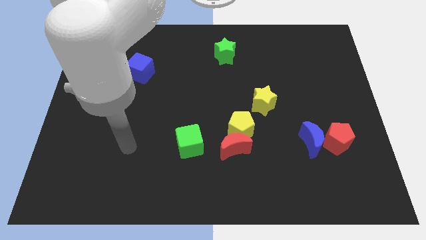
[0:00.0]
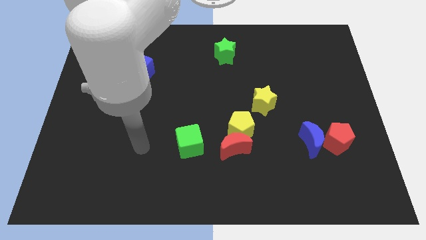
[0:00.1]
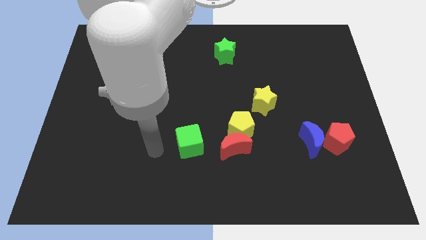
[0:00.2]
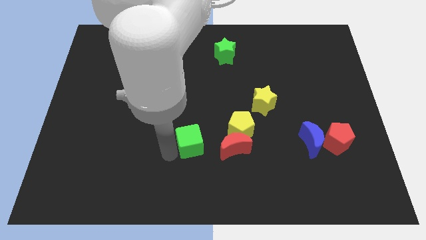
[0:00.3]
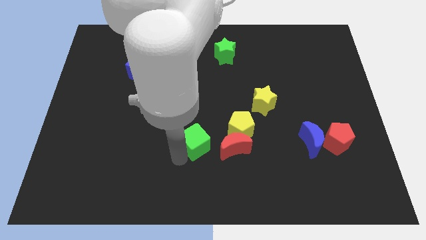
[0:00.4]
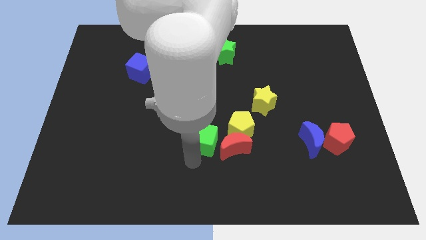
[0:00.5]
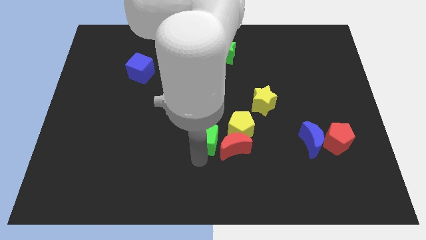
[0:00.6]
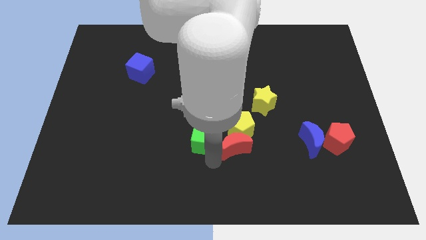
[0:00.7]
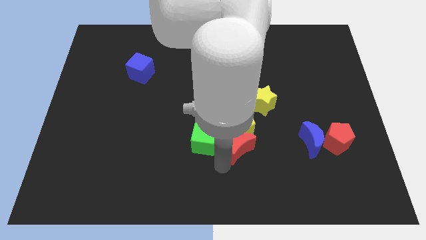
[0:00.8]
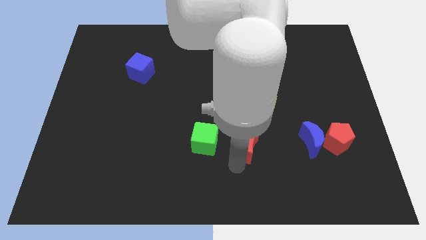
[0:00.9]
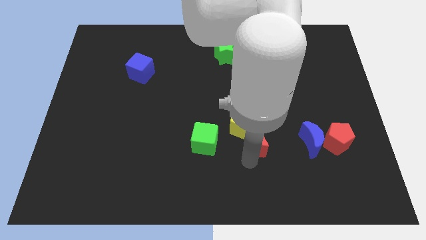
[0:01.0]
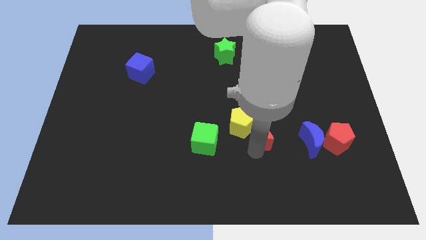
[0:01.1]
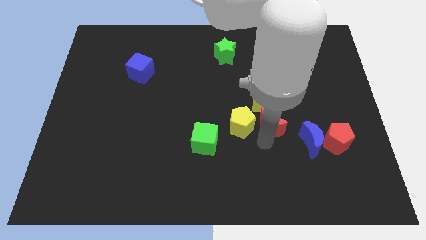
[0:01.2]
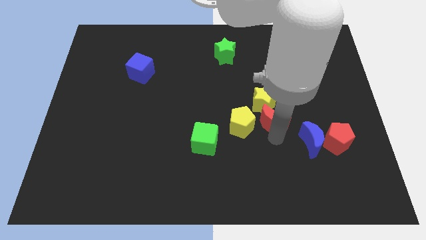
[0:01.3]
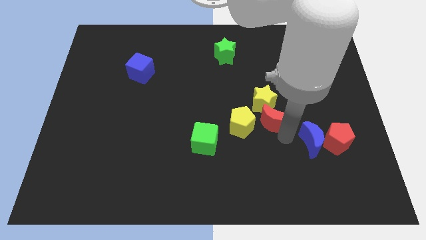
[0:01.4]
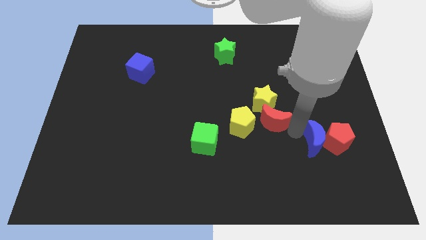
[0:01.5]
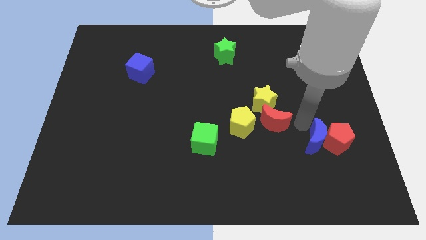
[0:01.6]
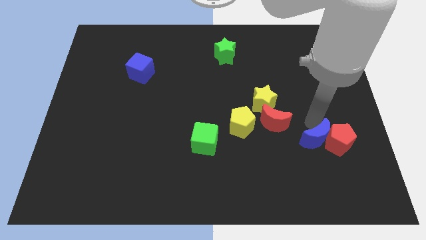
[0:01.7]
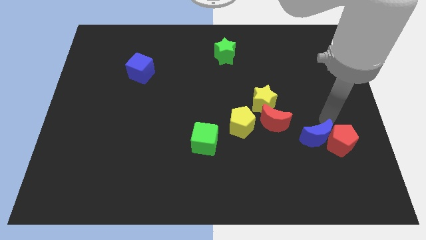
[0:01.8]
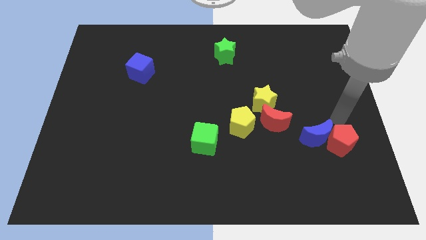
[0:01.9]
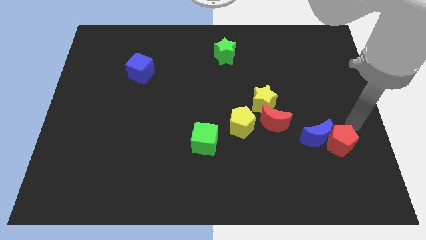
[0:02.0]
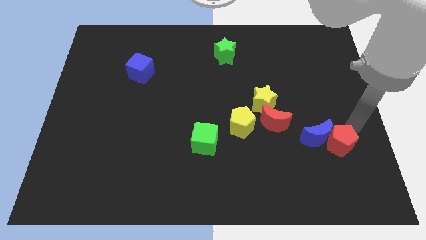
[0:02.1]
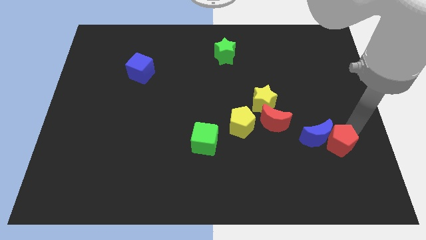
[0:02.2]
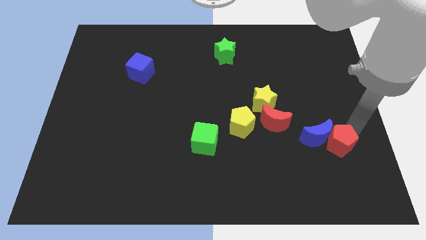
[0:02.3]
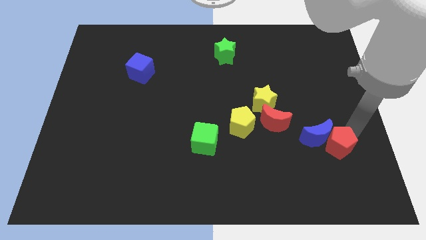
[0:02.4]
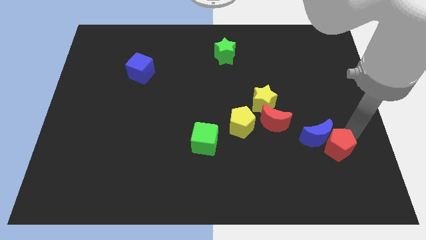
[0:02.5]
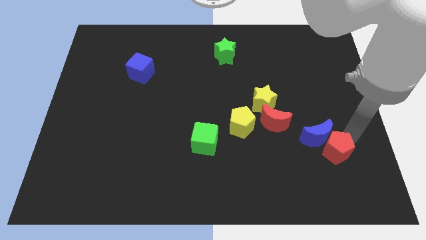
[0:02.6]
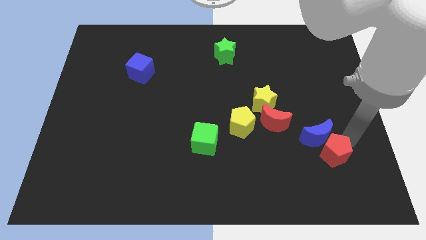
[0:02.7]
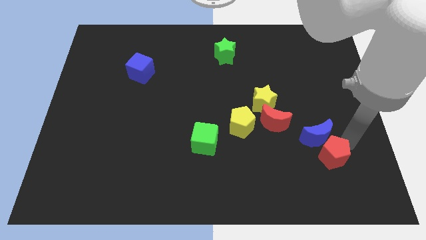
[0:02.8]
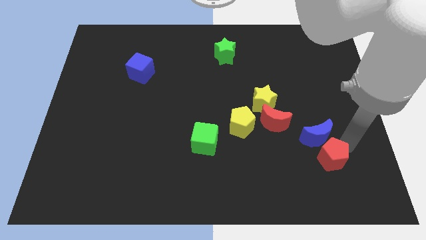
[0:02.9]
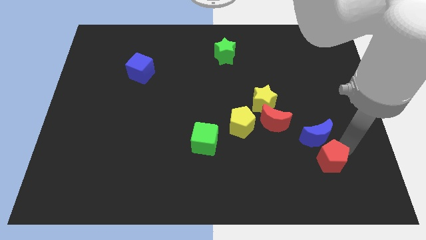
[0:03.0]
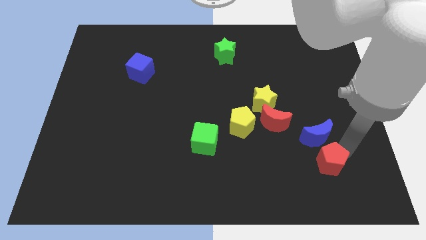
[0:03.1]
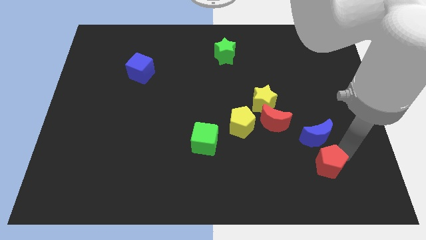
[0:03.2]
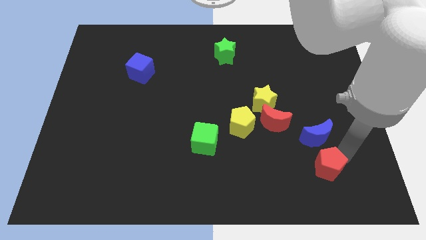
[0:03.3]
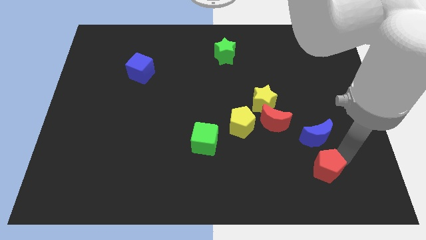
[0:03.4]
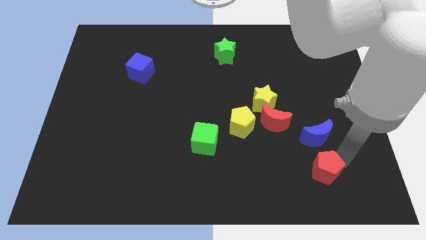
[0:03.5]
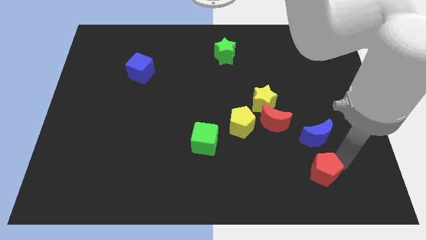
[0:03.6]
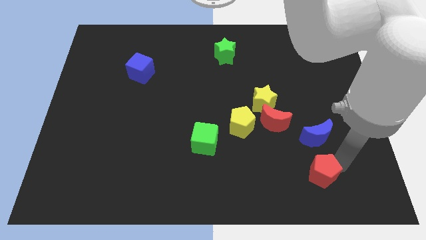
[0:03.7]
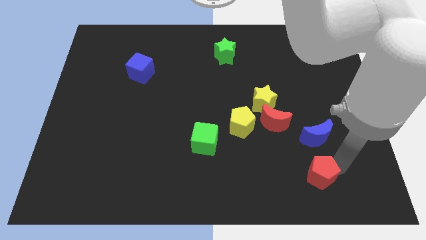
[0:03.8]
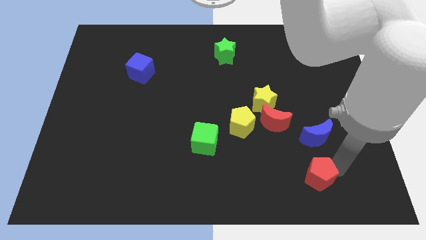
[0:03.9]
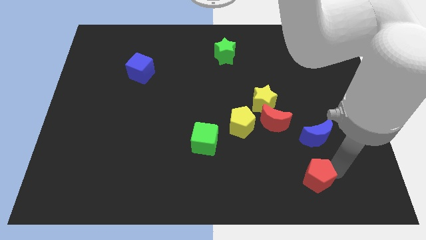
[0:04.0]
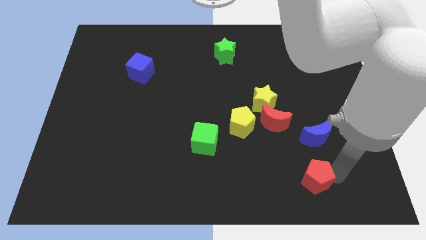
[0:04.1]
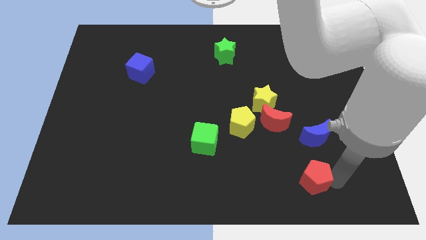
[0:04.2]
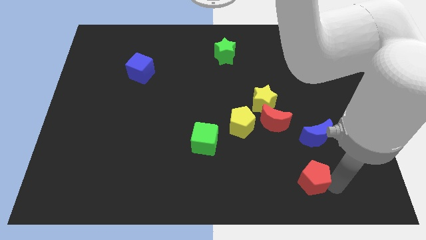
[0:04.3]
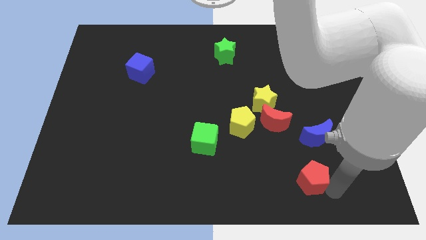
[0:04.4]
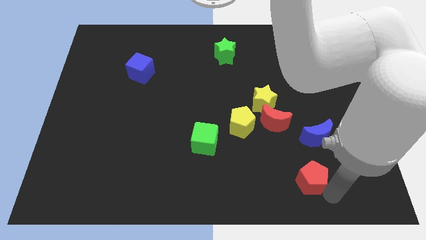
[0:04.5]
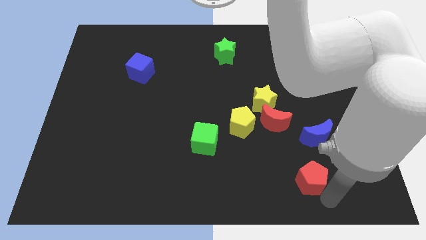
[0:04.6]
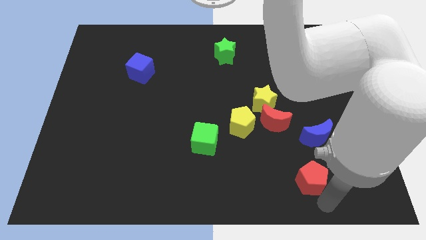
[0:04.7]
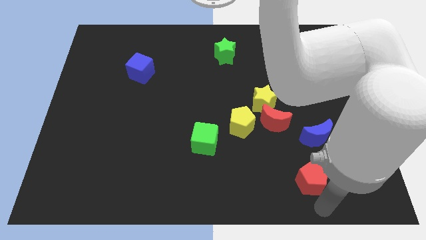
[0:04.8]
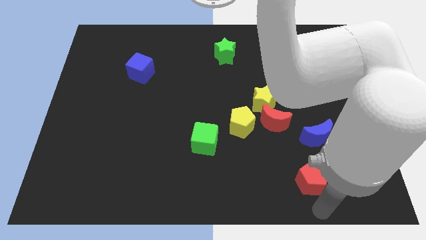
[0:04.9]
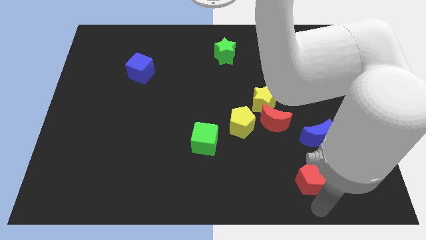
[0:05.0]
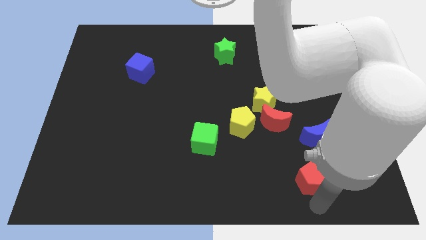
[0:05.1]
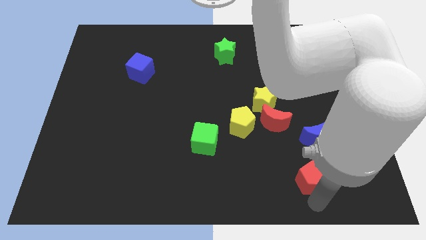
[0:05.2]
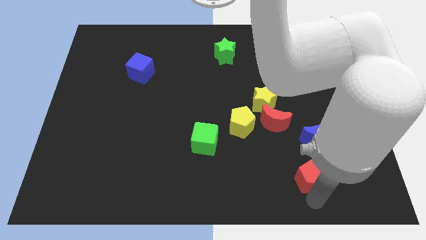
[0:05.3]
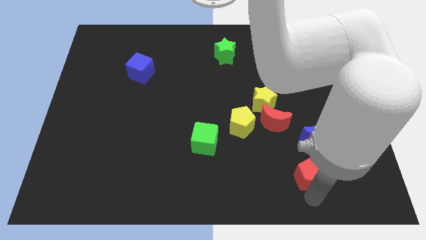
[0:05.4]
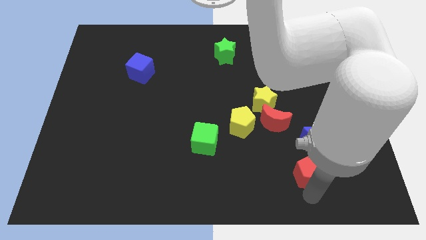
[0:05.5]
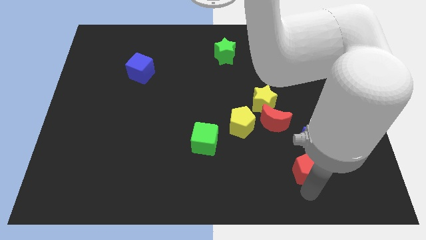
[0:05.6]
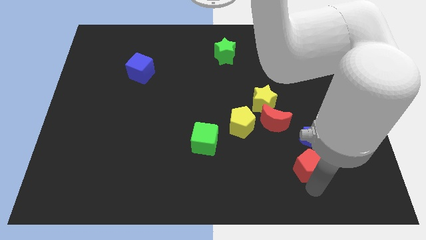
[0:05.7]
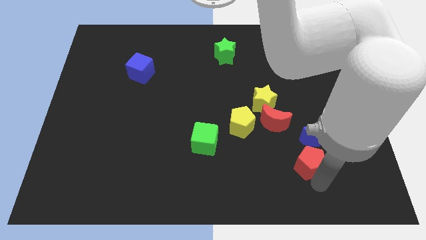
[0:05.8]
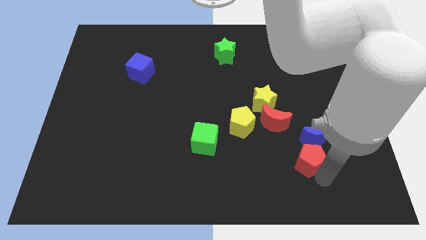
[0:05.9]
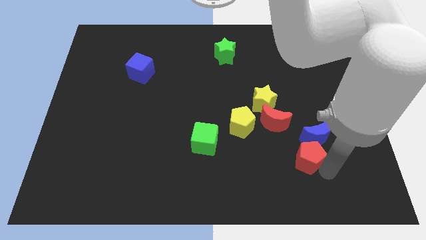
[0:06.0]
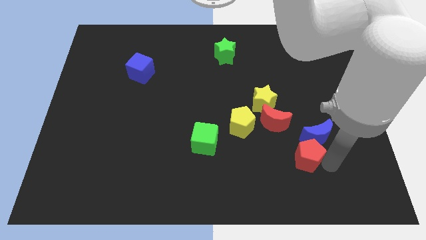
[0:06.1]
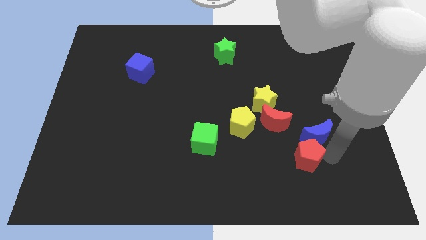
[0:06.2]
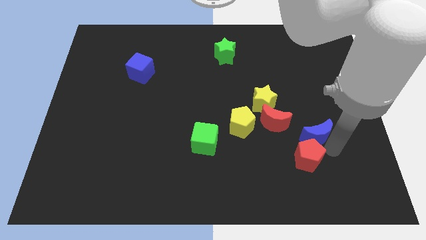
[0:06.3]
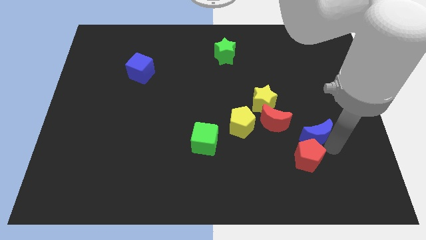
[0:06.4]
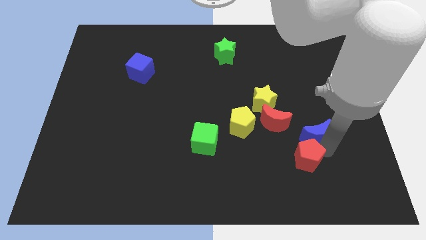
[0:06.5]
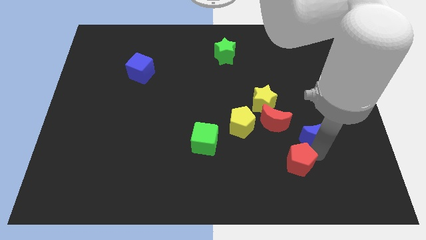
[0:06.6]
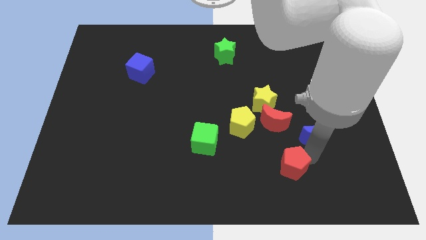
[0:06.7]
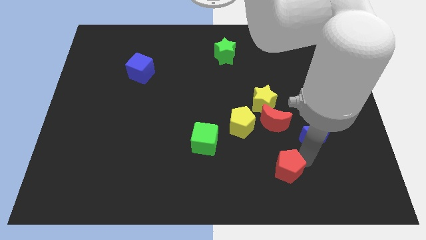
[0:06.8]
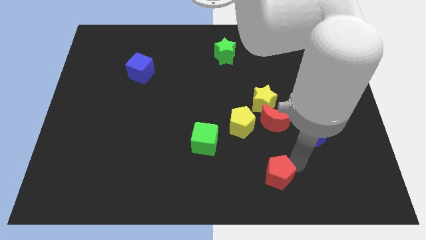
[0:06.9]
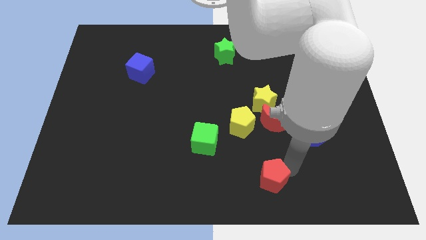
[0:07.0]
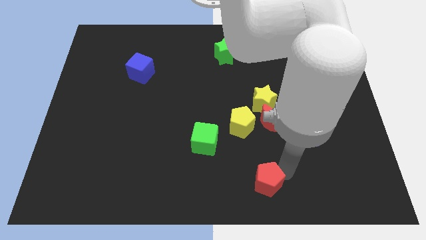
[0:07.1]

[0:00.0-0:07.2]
slide the red pentagon to the bottom

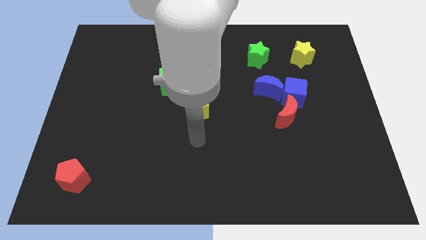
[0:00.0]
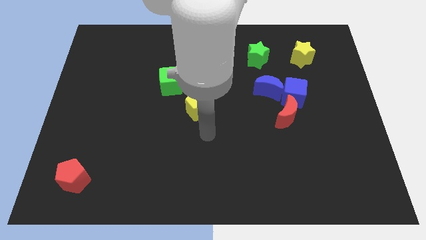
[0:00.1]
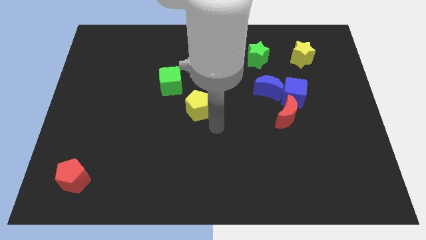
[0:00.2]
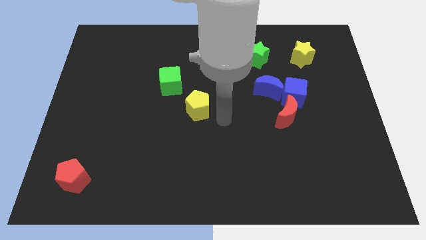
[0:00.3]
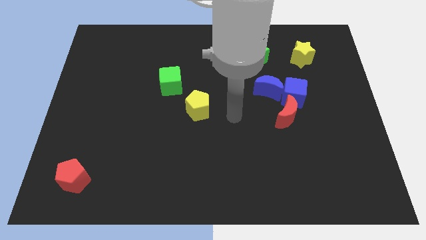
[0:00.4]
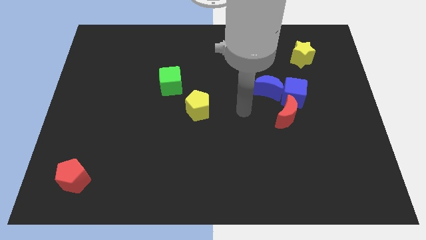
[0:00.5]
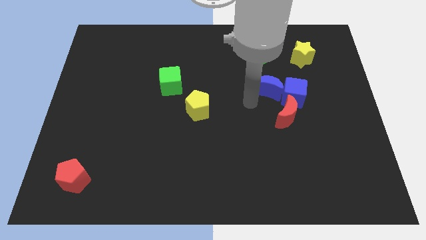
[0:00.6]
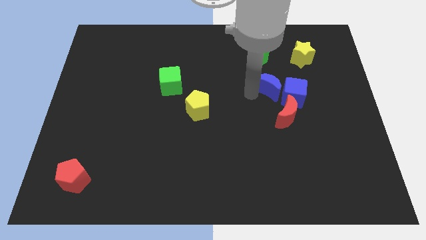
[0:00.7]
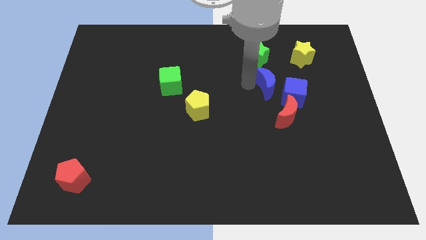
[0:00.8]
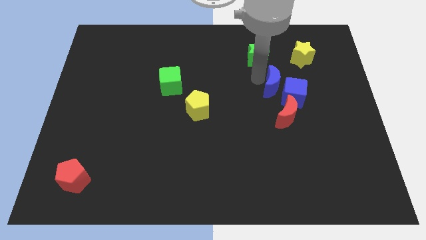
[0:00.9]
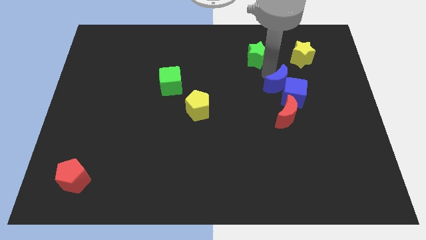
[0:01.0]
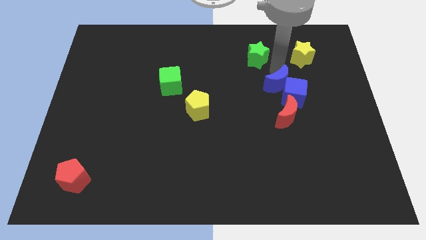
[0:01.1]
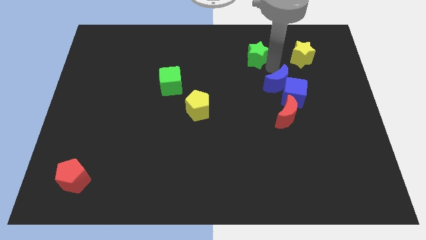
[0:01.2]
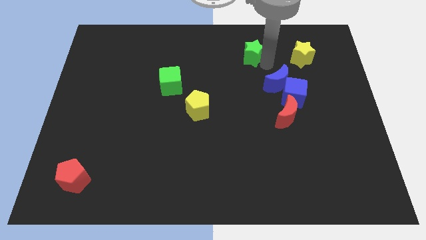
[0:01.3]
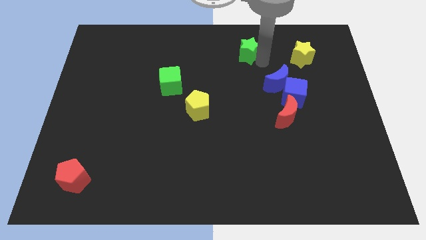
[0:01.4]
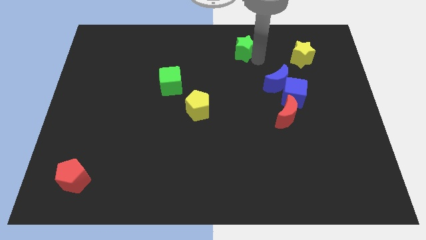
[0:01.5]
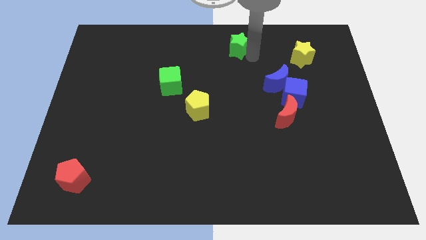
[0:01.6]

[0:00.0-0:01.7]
push the green star to the towards your base
